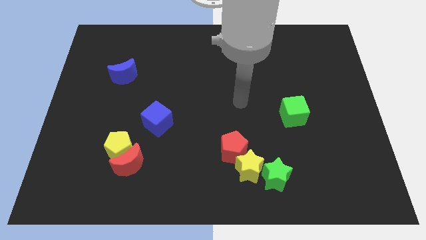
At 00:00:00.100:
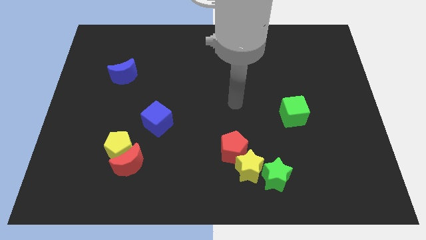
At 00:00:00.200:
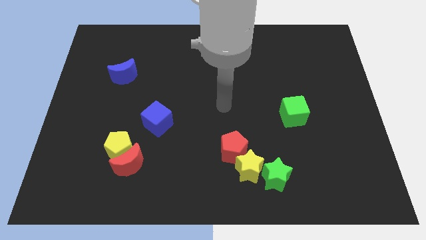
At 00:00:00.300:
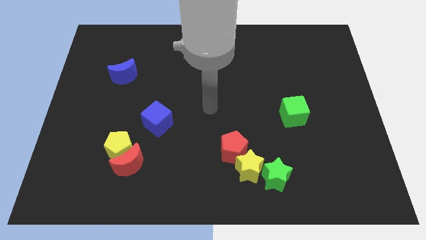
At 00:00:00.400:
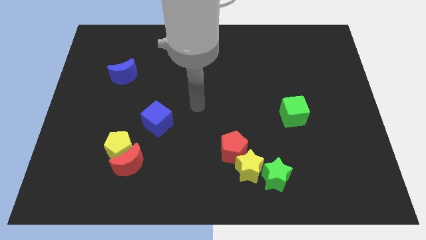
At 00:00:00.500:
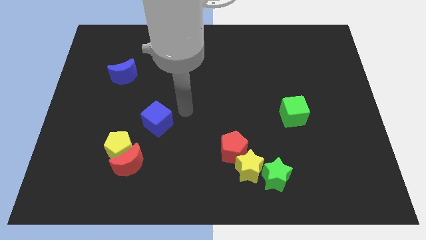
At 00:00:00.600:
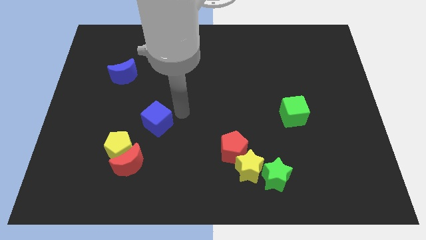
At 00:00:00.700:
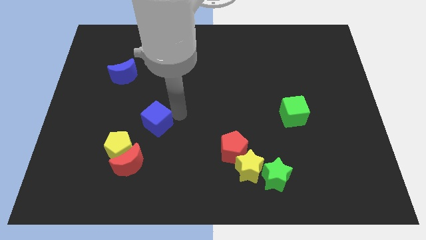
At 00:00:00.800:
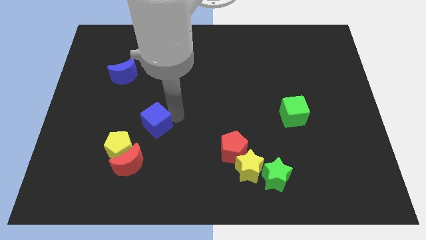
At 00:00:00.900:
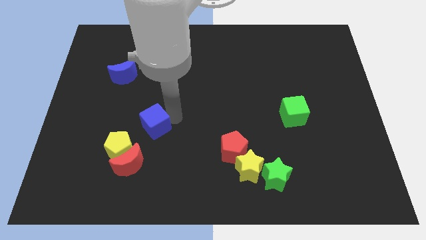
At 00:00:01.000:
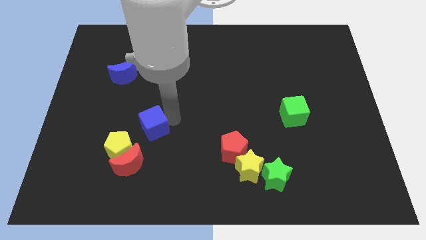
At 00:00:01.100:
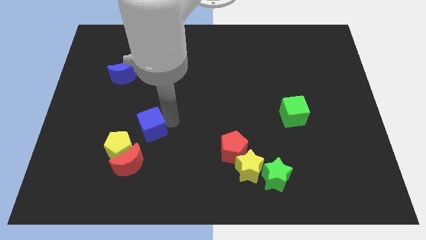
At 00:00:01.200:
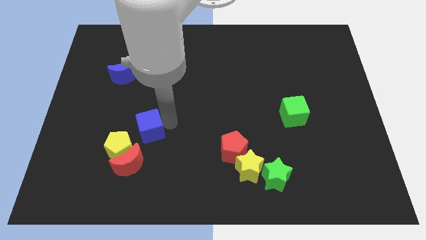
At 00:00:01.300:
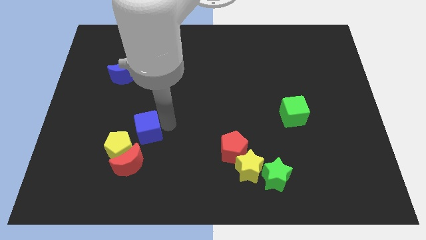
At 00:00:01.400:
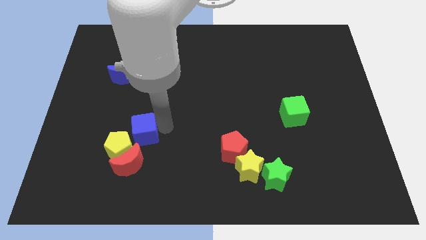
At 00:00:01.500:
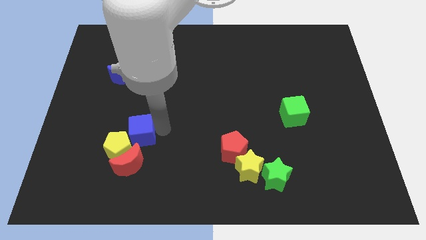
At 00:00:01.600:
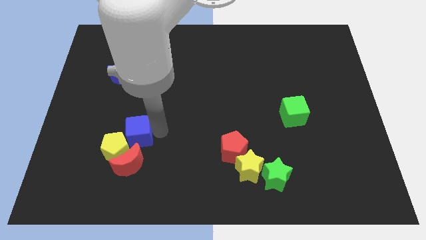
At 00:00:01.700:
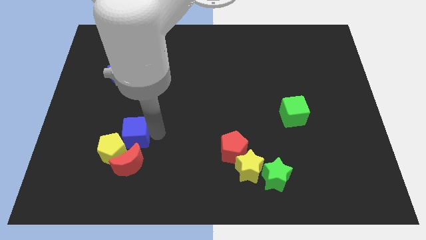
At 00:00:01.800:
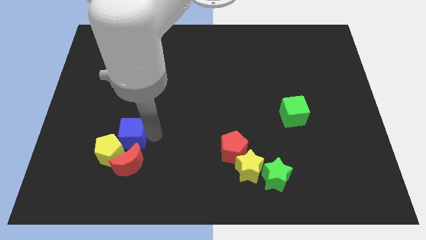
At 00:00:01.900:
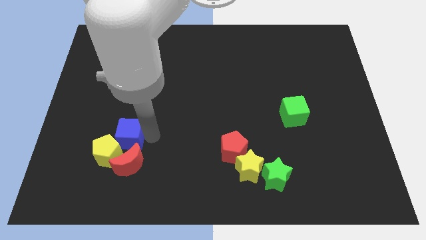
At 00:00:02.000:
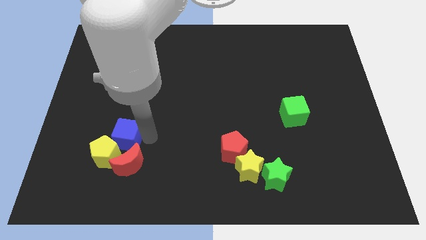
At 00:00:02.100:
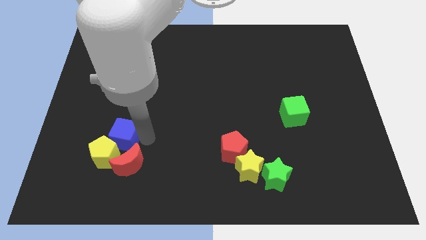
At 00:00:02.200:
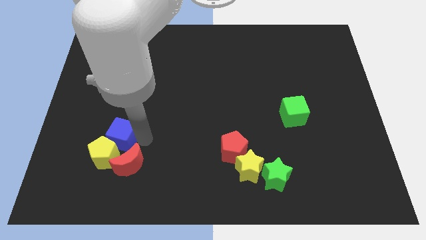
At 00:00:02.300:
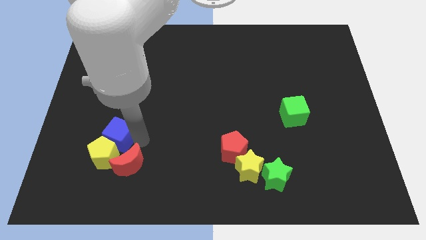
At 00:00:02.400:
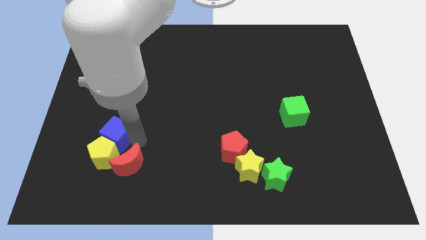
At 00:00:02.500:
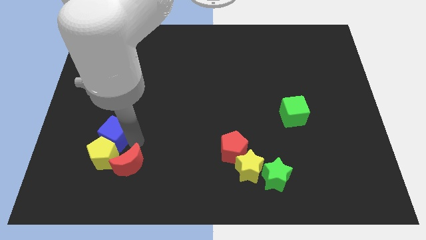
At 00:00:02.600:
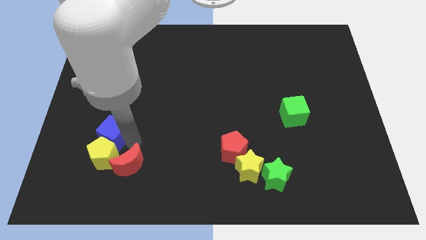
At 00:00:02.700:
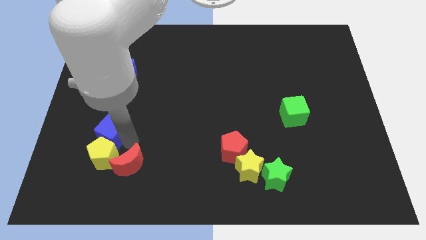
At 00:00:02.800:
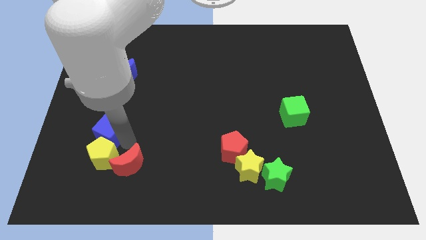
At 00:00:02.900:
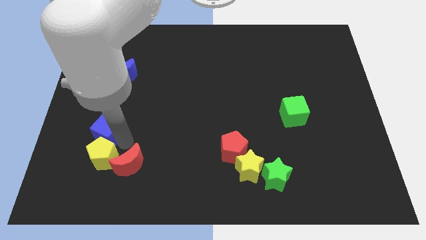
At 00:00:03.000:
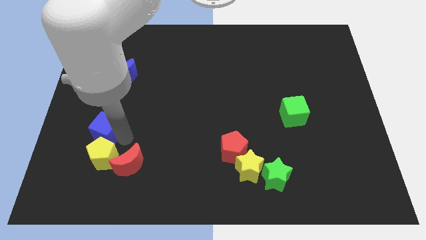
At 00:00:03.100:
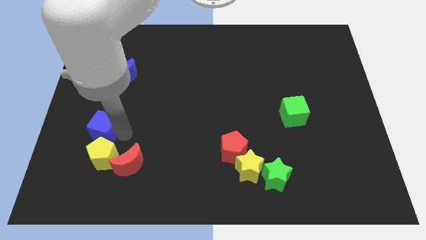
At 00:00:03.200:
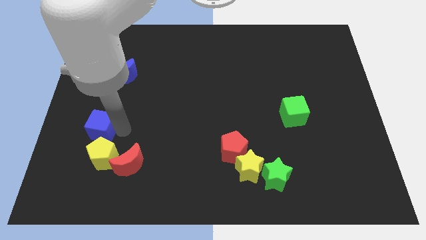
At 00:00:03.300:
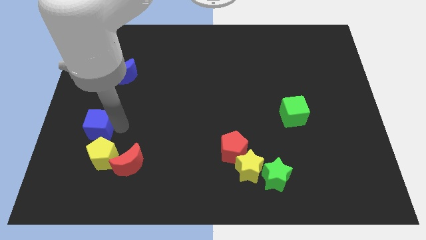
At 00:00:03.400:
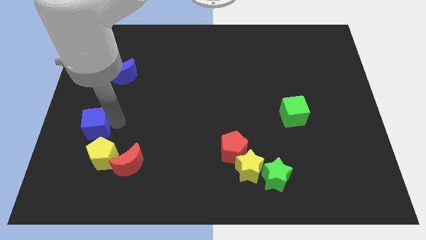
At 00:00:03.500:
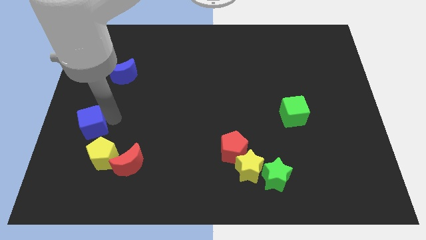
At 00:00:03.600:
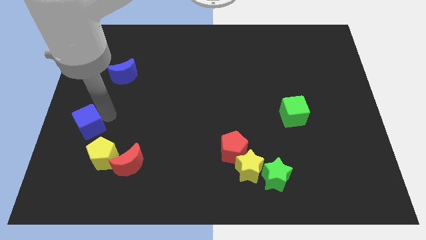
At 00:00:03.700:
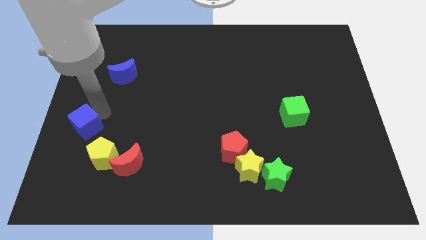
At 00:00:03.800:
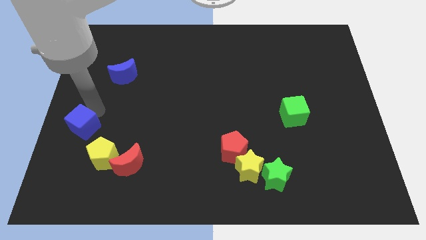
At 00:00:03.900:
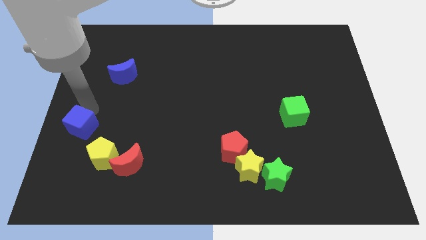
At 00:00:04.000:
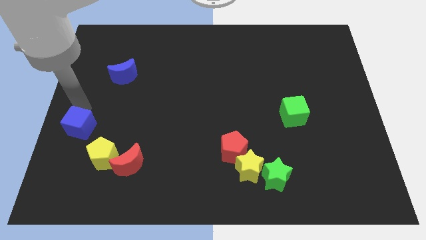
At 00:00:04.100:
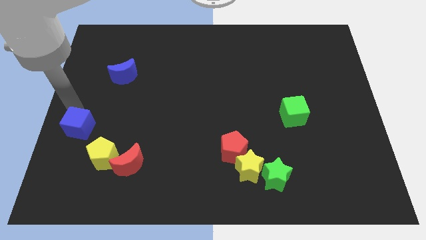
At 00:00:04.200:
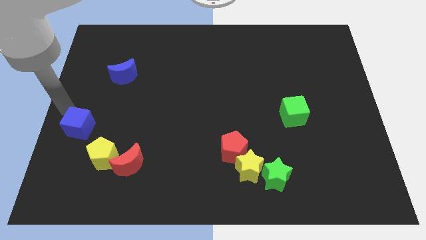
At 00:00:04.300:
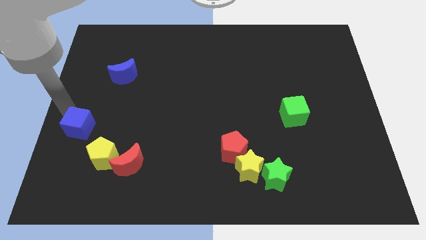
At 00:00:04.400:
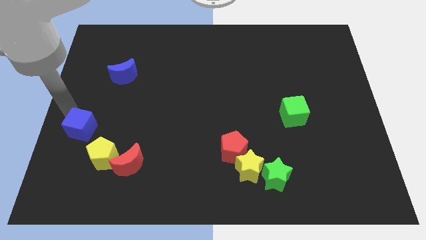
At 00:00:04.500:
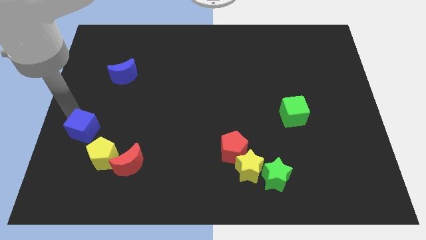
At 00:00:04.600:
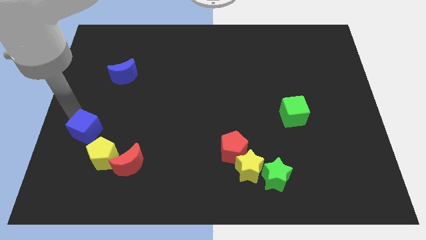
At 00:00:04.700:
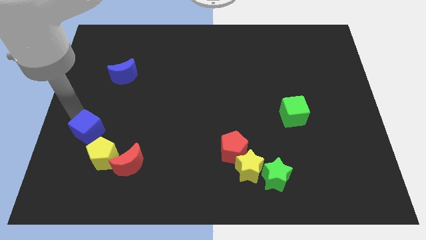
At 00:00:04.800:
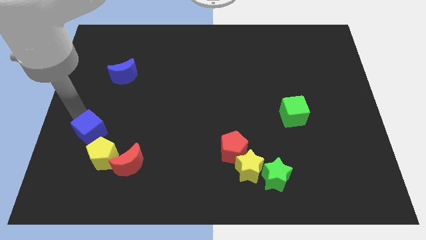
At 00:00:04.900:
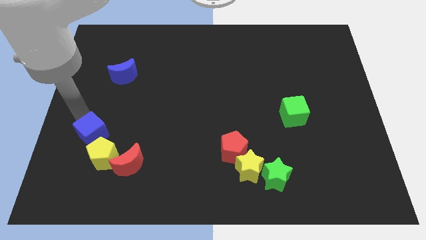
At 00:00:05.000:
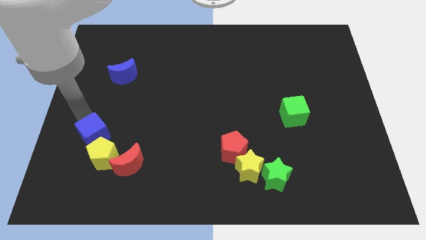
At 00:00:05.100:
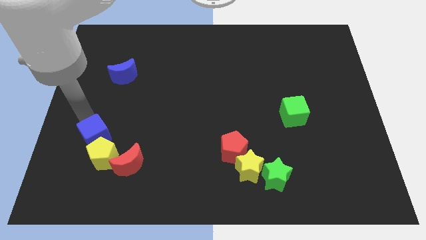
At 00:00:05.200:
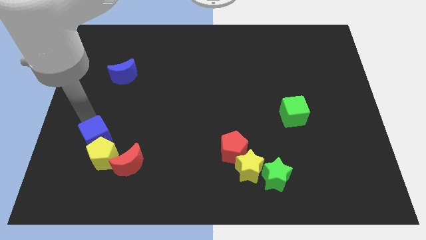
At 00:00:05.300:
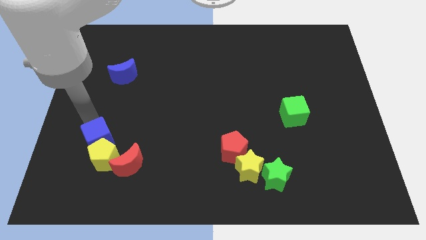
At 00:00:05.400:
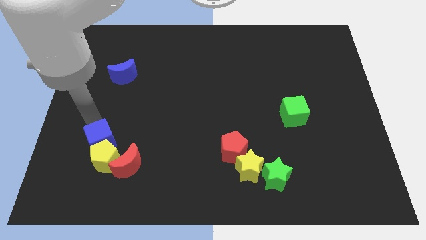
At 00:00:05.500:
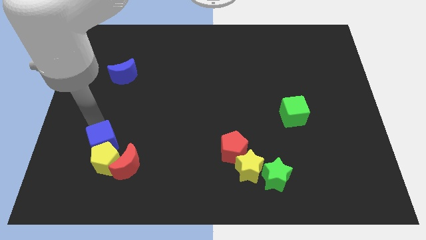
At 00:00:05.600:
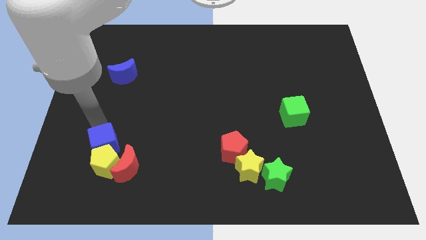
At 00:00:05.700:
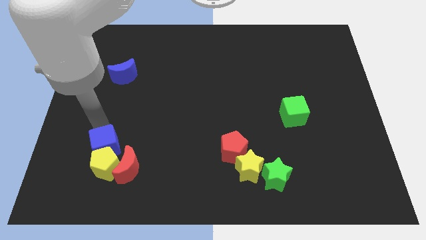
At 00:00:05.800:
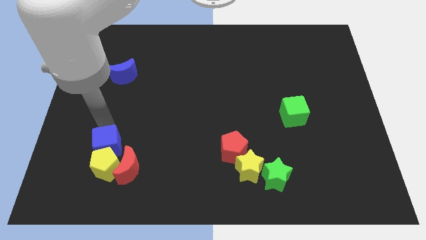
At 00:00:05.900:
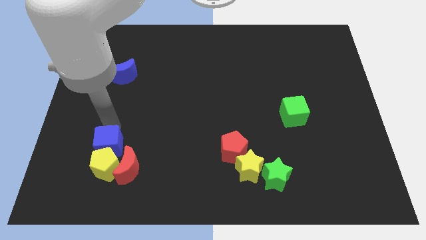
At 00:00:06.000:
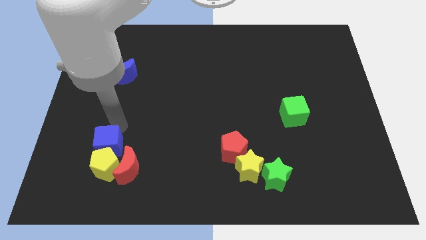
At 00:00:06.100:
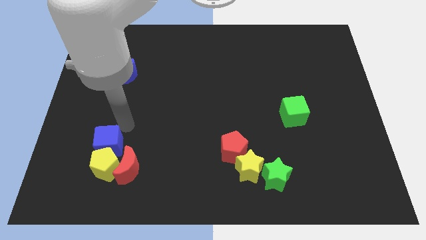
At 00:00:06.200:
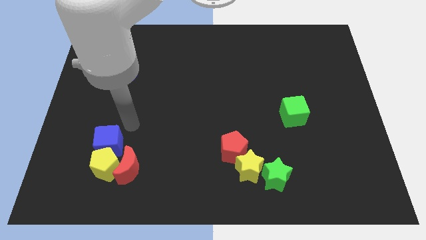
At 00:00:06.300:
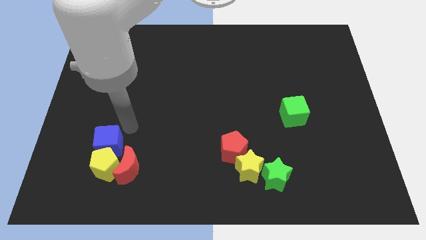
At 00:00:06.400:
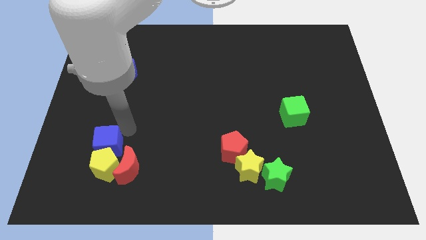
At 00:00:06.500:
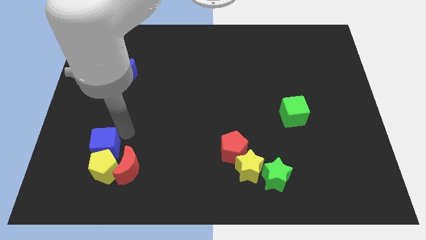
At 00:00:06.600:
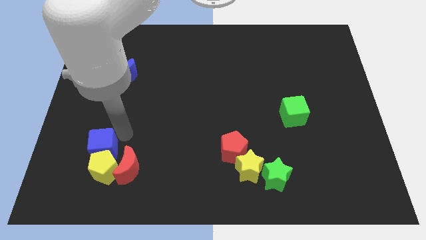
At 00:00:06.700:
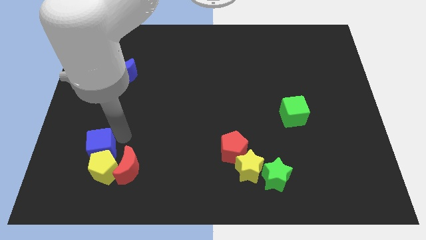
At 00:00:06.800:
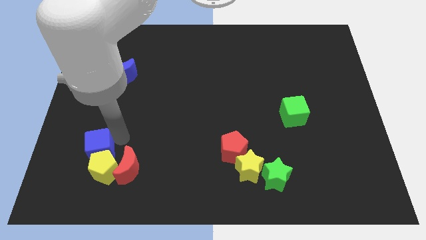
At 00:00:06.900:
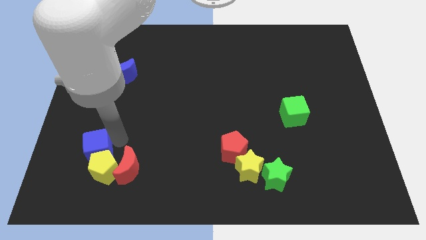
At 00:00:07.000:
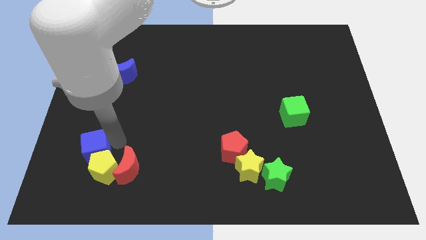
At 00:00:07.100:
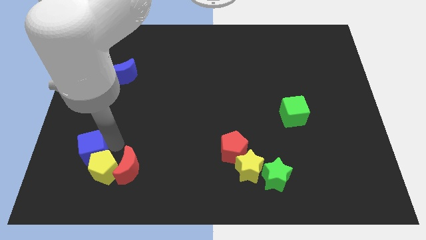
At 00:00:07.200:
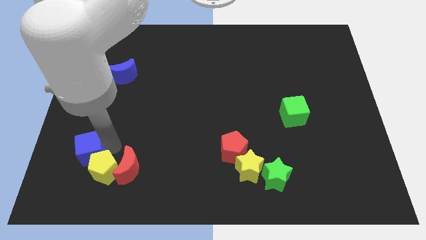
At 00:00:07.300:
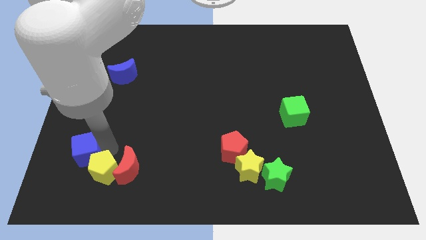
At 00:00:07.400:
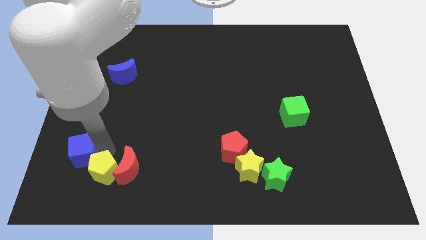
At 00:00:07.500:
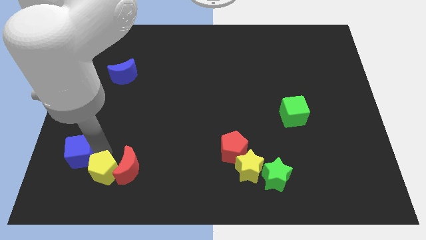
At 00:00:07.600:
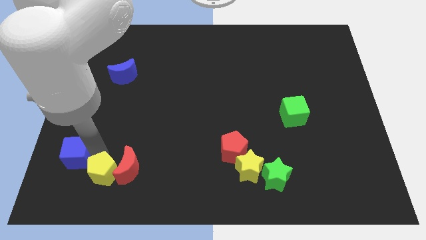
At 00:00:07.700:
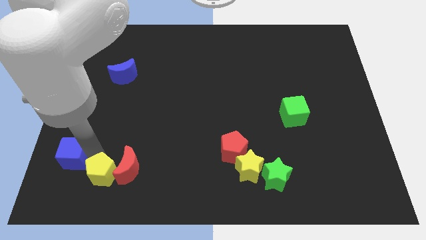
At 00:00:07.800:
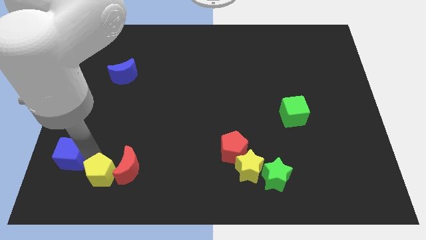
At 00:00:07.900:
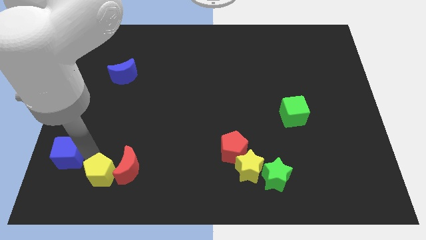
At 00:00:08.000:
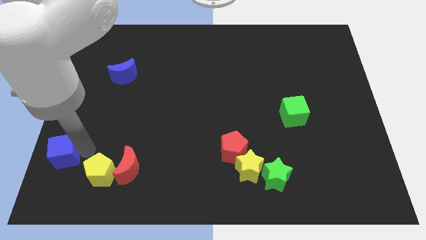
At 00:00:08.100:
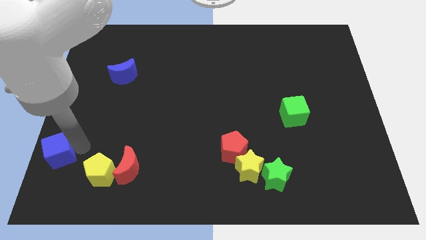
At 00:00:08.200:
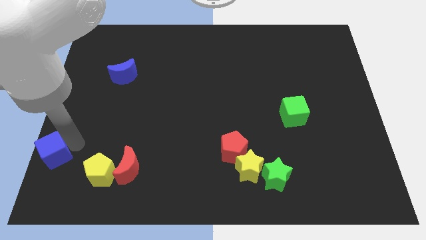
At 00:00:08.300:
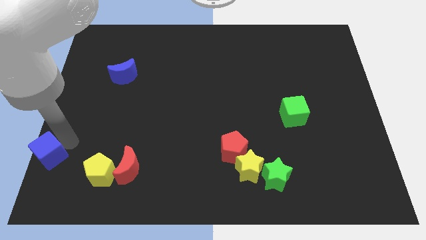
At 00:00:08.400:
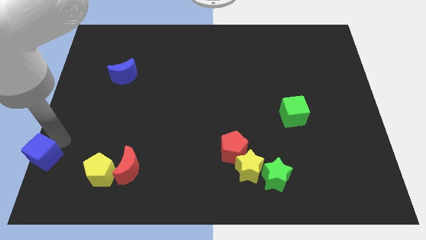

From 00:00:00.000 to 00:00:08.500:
put the blue cube to the lower left corner
